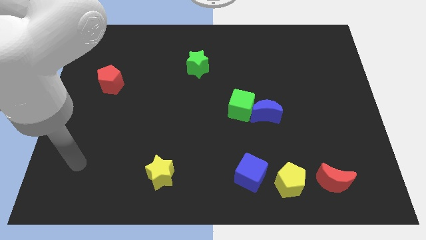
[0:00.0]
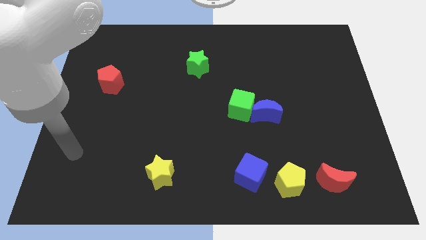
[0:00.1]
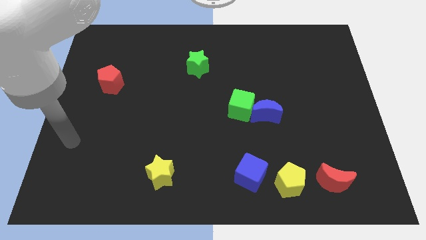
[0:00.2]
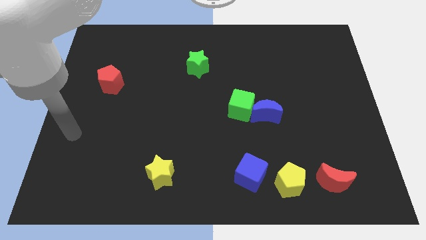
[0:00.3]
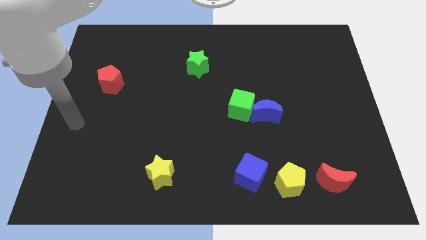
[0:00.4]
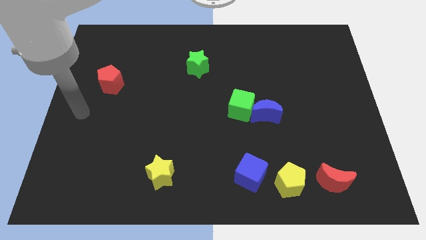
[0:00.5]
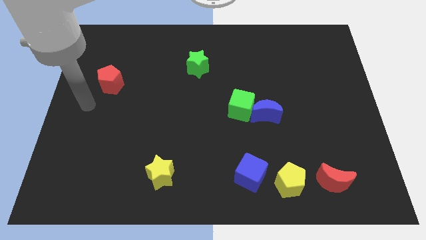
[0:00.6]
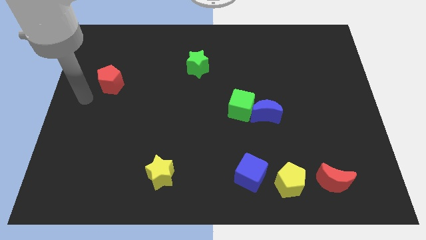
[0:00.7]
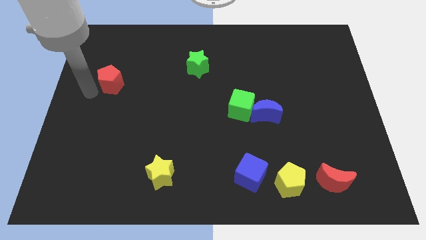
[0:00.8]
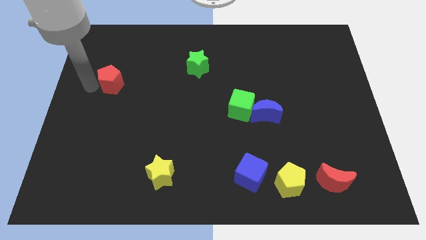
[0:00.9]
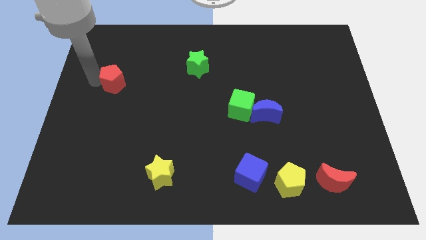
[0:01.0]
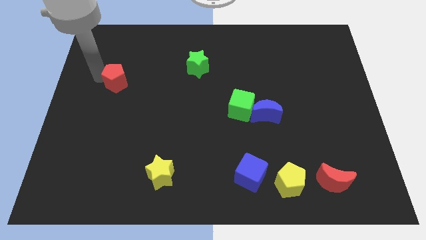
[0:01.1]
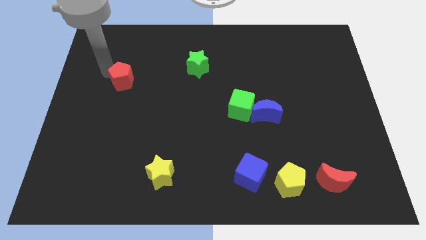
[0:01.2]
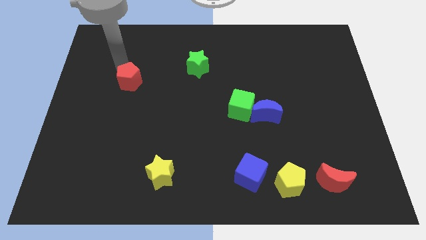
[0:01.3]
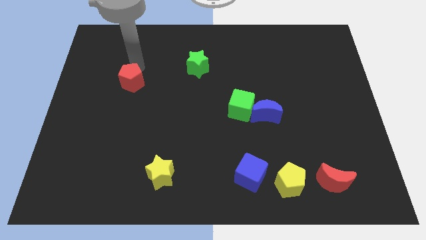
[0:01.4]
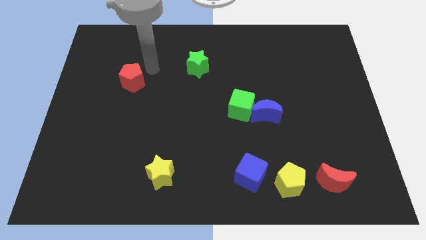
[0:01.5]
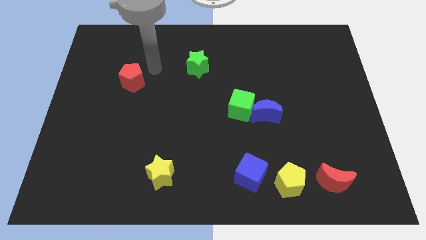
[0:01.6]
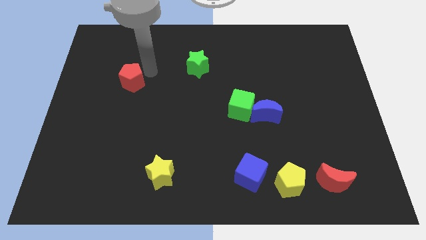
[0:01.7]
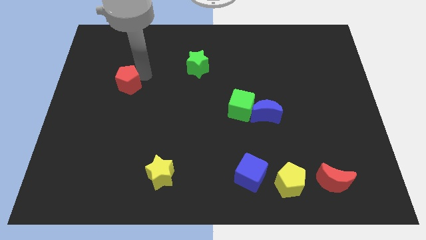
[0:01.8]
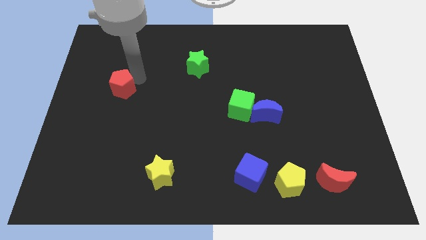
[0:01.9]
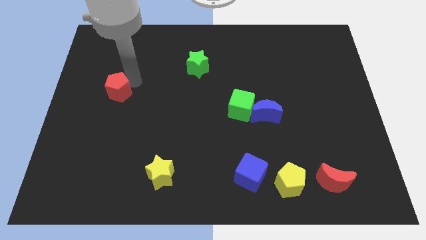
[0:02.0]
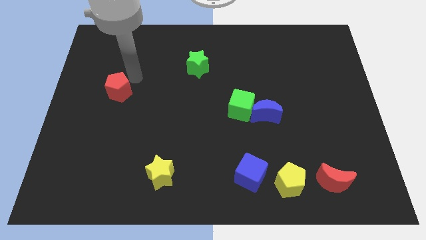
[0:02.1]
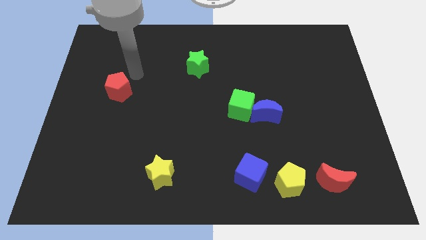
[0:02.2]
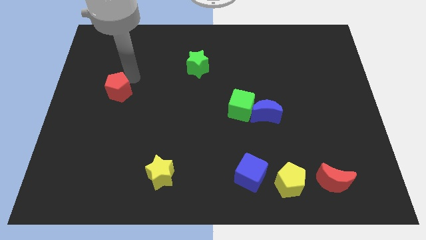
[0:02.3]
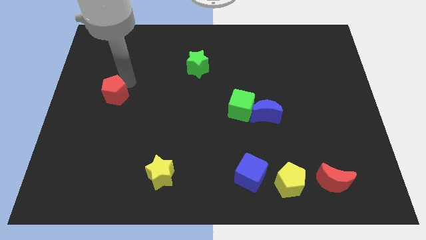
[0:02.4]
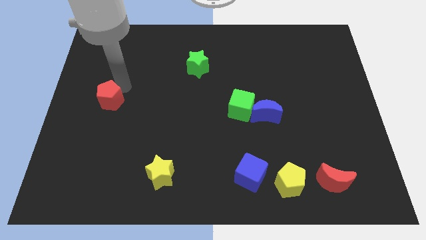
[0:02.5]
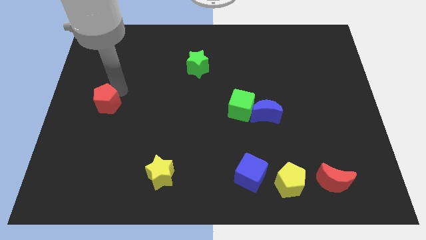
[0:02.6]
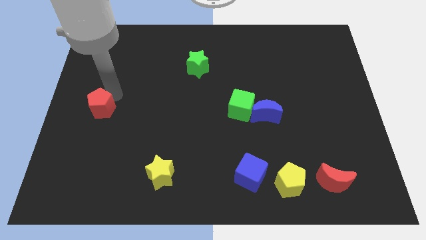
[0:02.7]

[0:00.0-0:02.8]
slightly move the red pentagon down

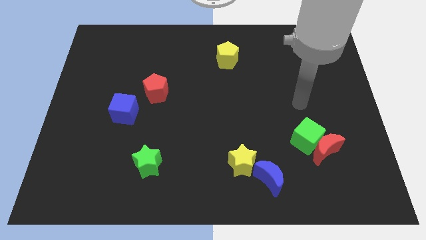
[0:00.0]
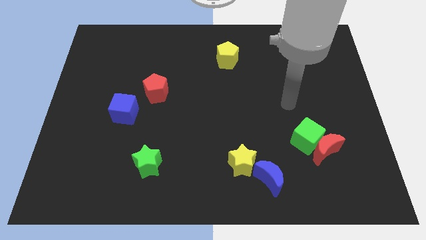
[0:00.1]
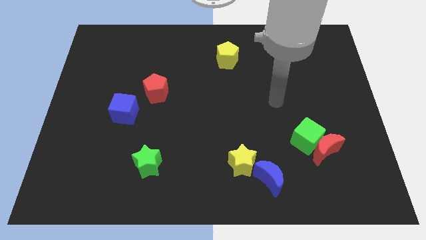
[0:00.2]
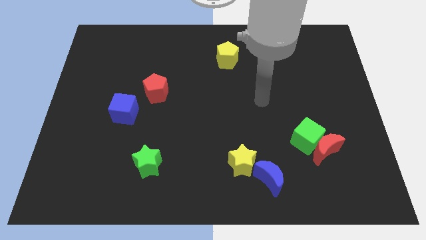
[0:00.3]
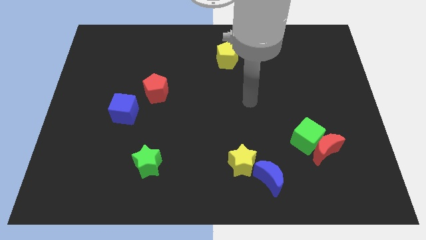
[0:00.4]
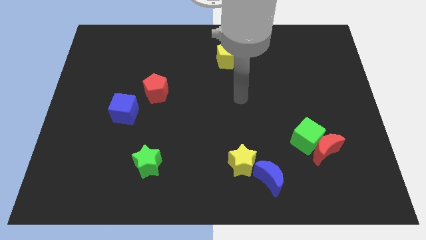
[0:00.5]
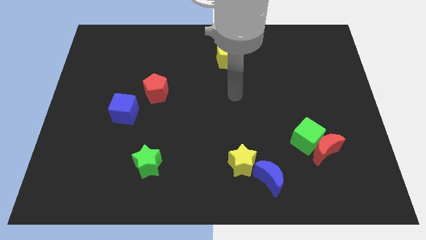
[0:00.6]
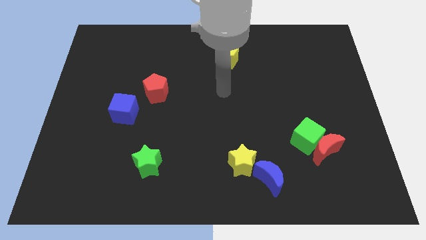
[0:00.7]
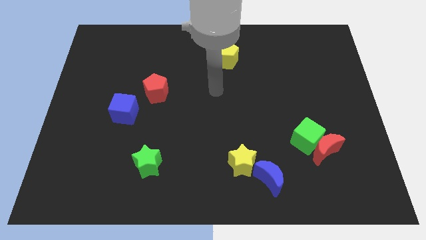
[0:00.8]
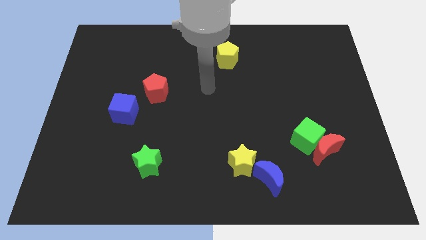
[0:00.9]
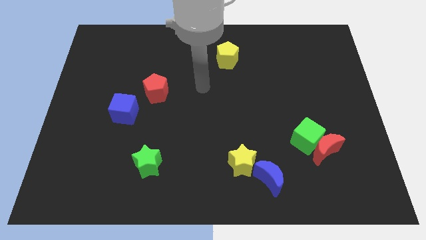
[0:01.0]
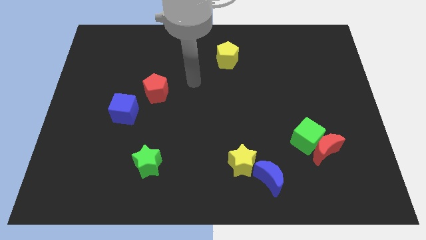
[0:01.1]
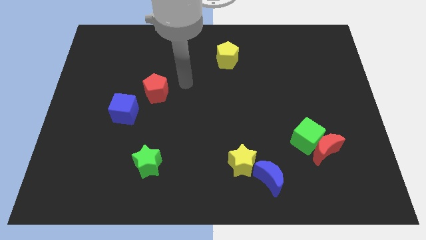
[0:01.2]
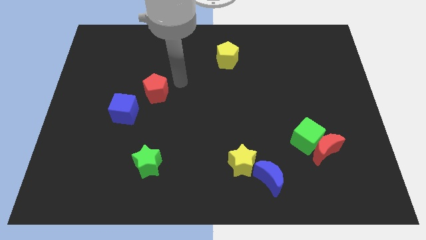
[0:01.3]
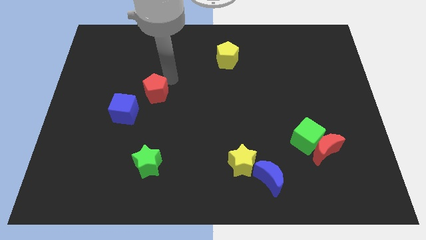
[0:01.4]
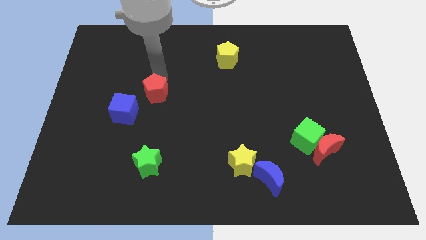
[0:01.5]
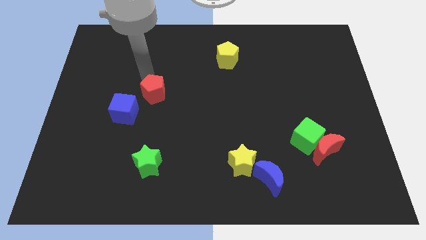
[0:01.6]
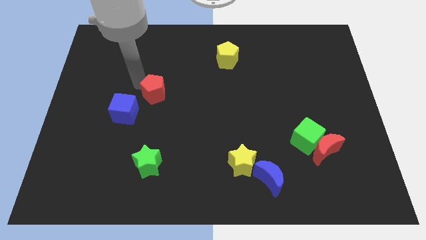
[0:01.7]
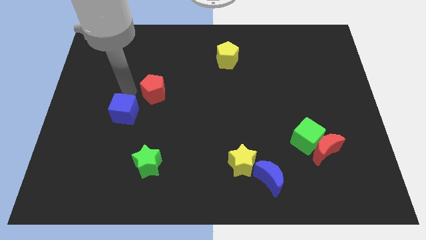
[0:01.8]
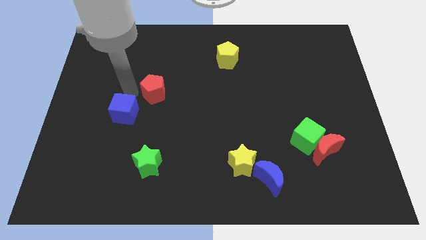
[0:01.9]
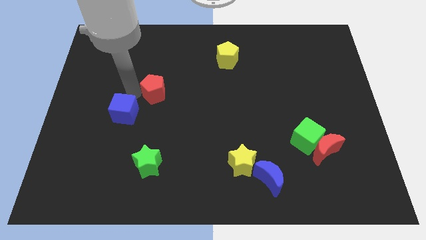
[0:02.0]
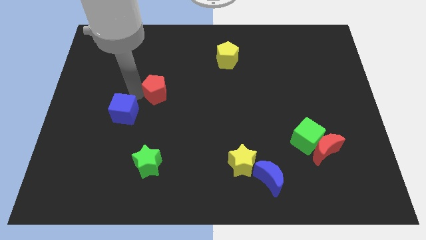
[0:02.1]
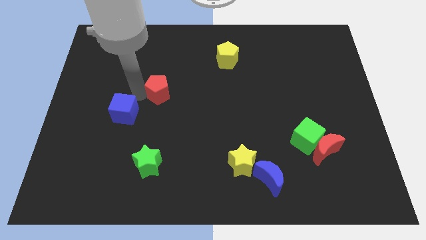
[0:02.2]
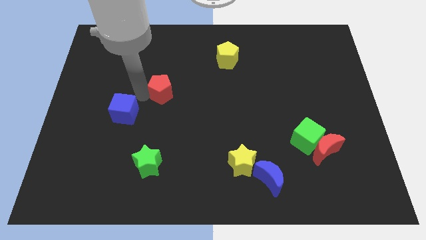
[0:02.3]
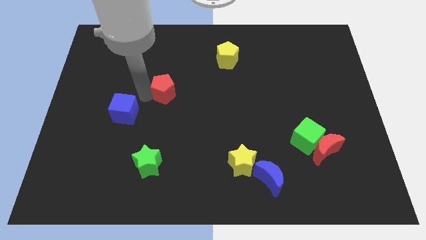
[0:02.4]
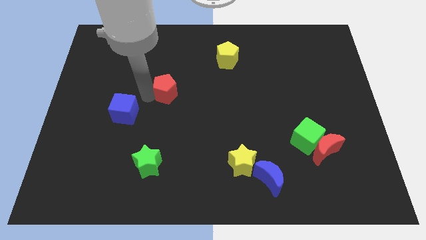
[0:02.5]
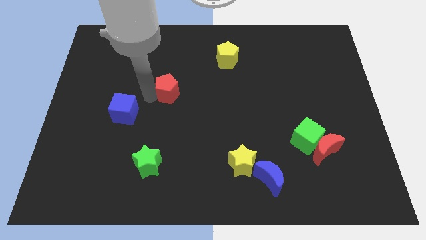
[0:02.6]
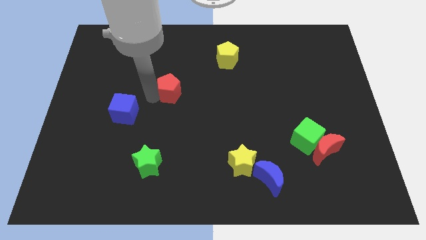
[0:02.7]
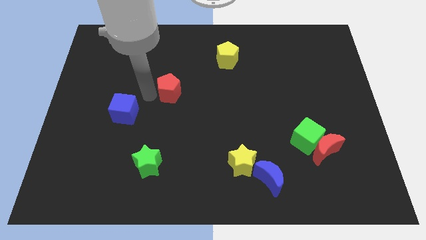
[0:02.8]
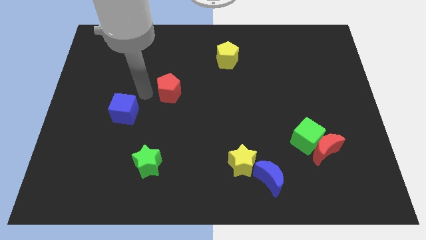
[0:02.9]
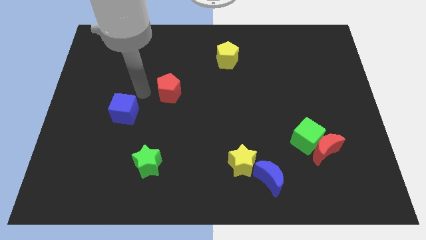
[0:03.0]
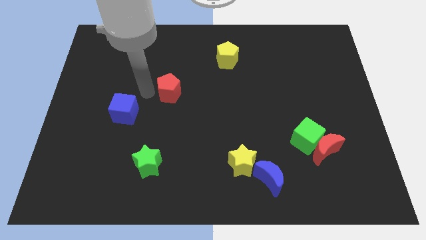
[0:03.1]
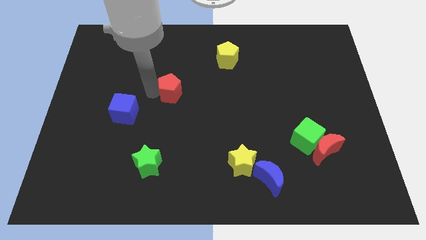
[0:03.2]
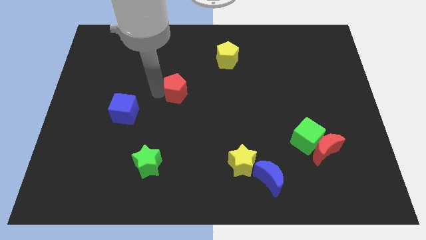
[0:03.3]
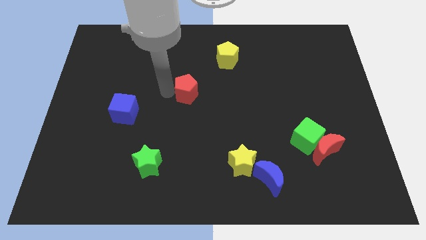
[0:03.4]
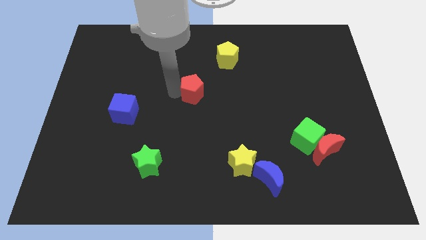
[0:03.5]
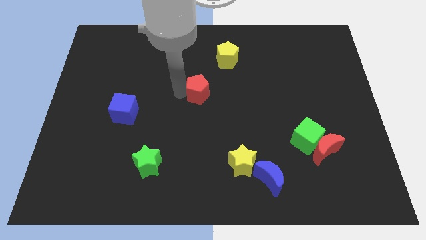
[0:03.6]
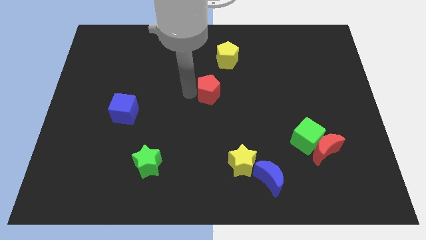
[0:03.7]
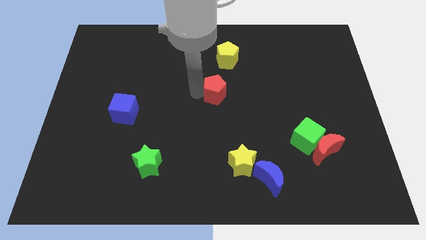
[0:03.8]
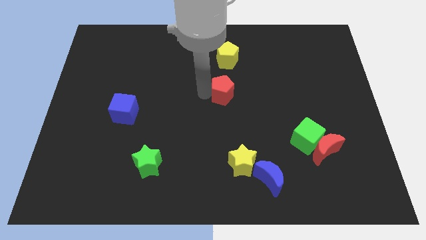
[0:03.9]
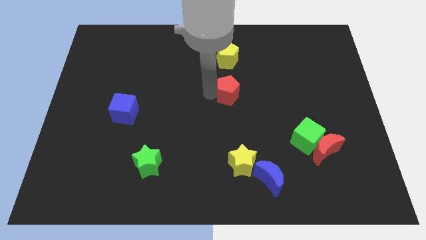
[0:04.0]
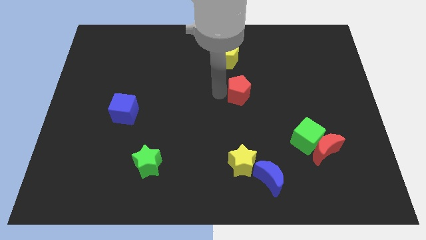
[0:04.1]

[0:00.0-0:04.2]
push the red pentagon to the right

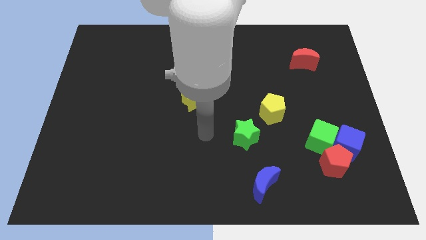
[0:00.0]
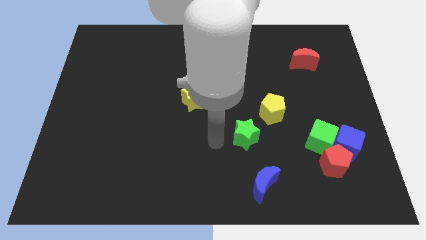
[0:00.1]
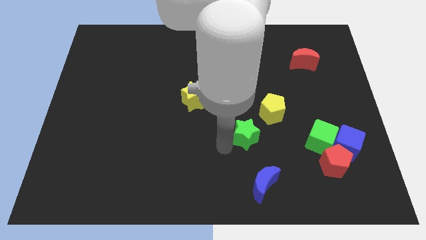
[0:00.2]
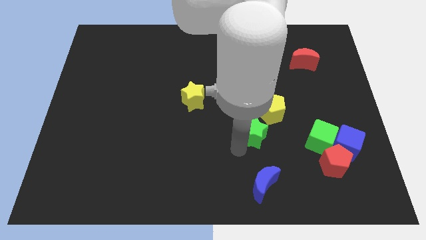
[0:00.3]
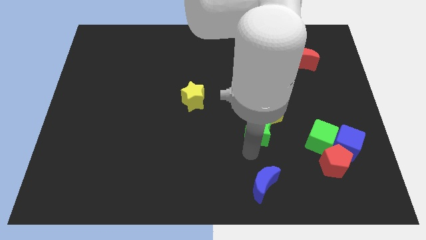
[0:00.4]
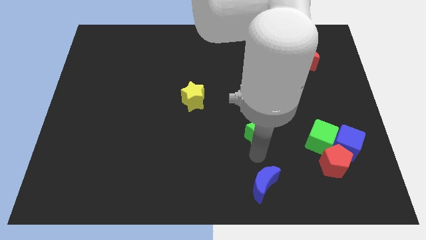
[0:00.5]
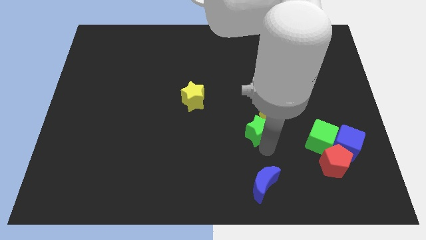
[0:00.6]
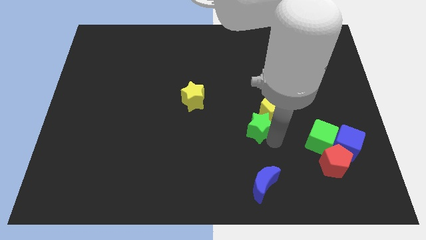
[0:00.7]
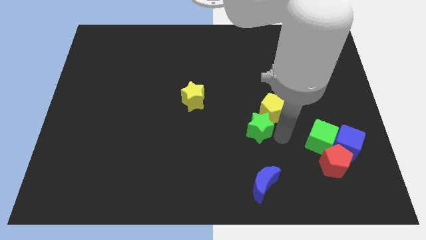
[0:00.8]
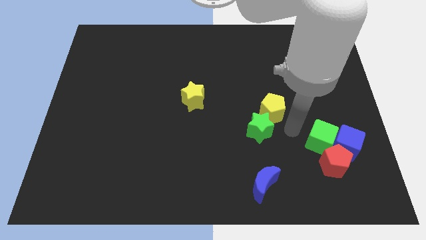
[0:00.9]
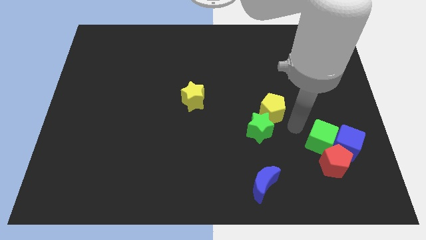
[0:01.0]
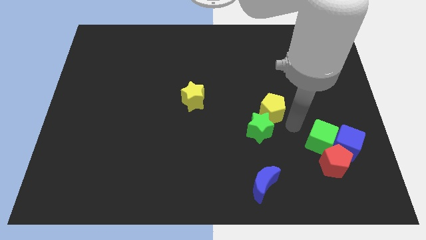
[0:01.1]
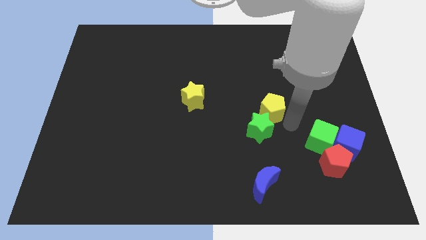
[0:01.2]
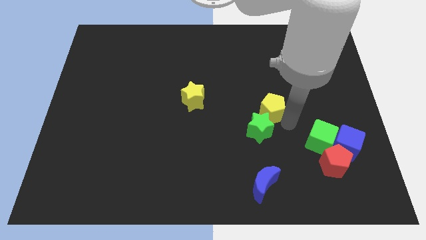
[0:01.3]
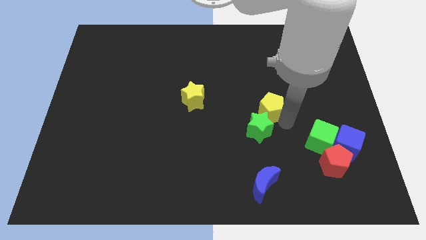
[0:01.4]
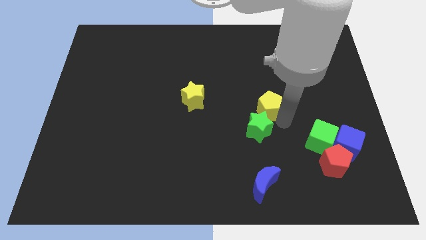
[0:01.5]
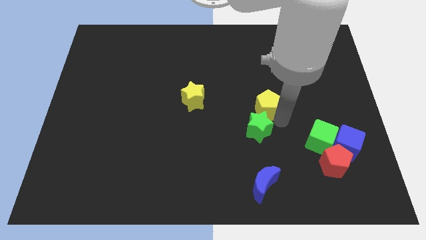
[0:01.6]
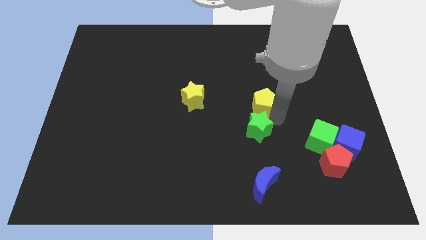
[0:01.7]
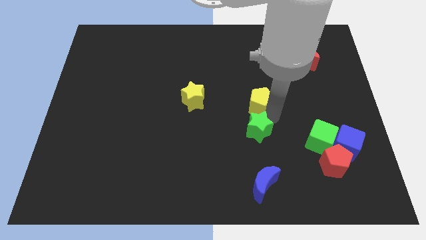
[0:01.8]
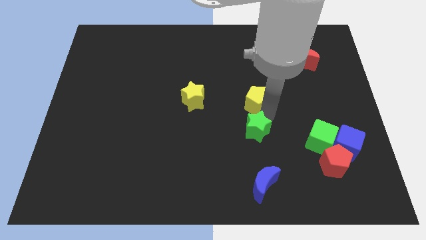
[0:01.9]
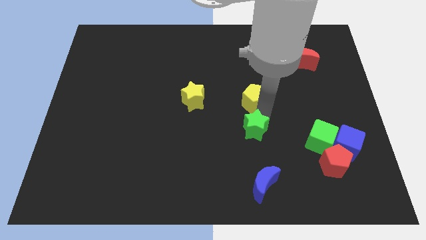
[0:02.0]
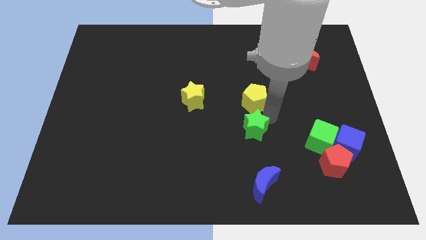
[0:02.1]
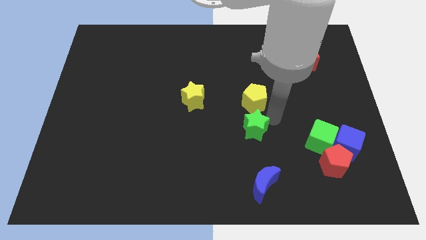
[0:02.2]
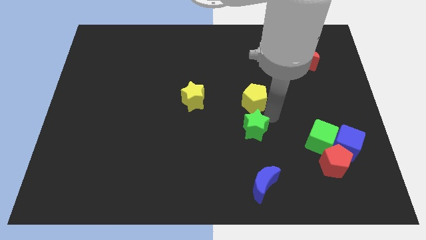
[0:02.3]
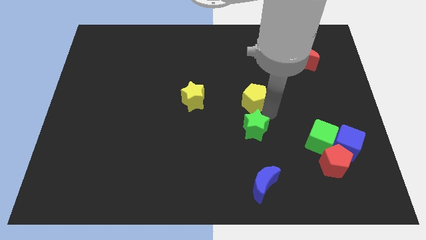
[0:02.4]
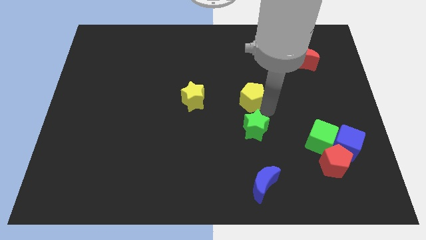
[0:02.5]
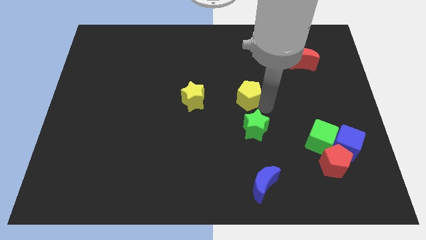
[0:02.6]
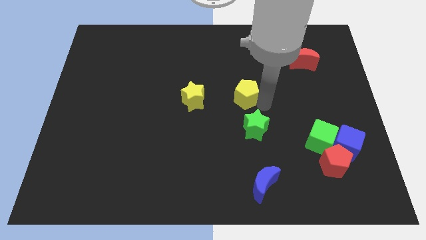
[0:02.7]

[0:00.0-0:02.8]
slide the yellow pentagon upwards and to the left diagonally a little
